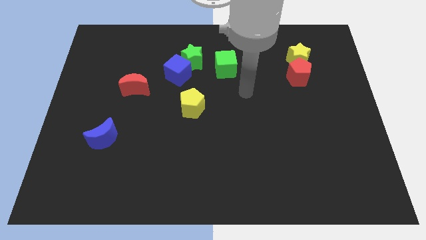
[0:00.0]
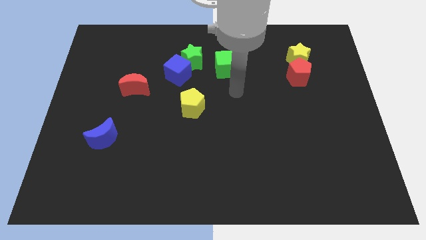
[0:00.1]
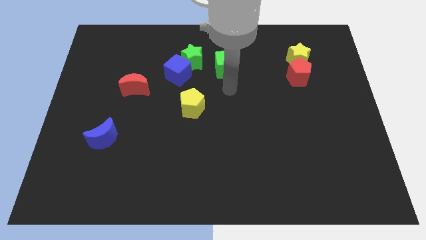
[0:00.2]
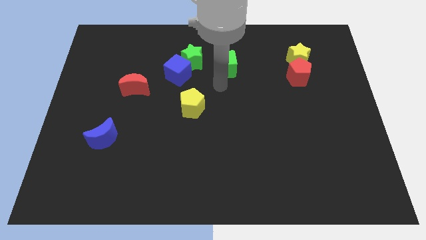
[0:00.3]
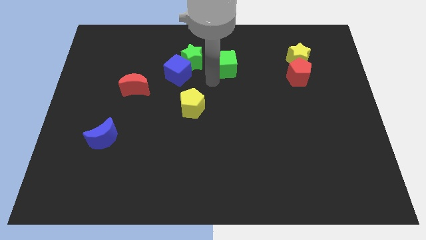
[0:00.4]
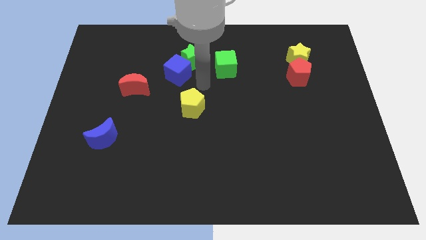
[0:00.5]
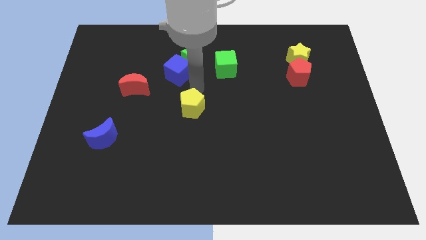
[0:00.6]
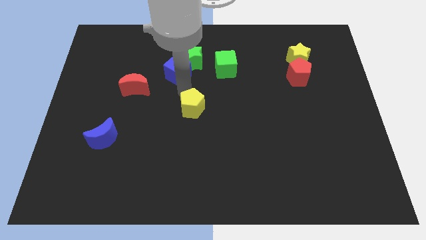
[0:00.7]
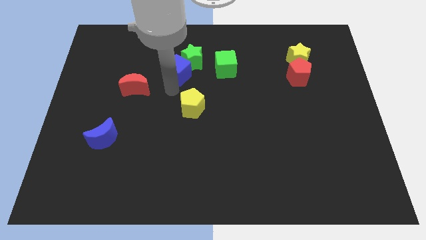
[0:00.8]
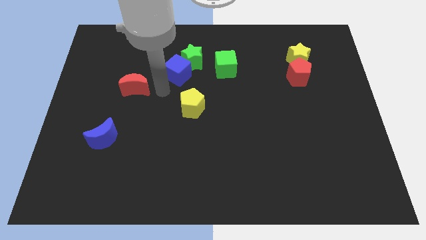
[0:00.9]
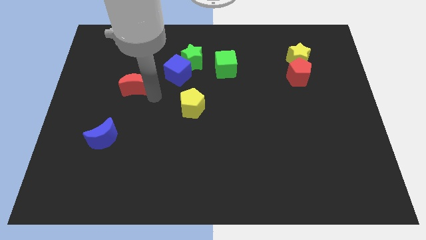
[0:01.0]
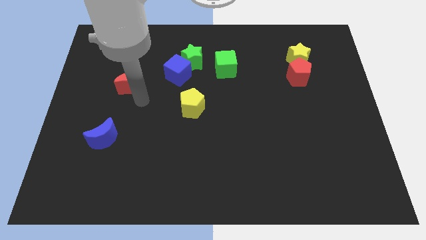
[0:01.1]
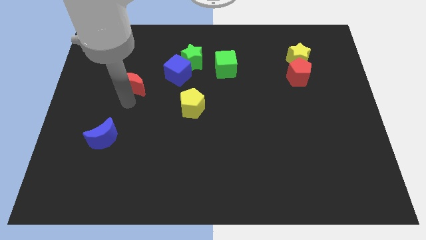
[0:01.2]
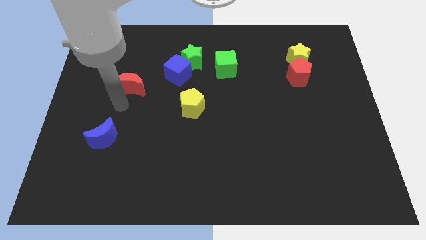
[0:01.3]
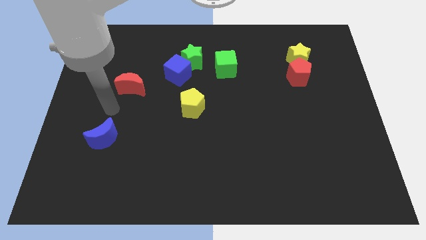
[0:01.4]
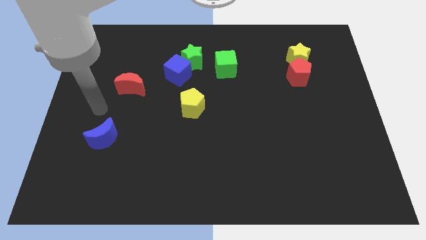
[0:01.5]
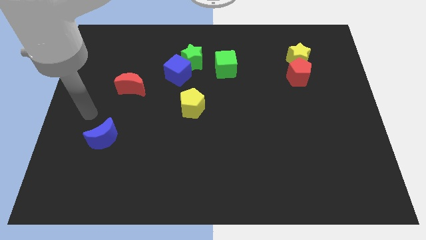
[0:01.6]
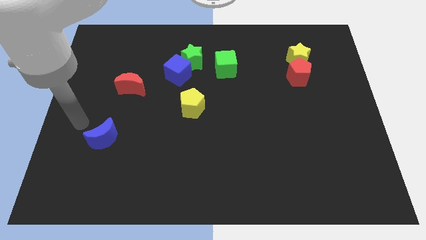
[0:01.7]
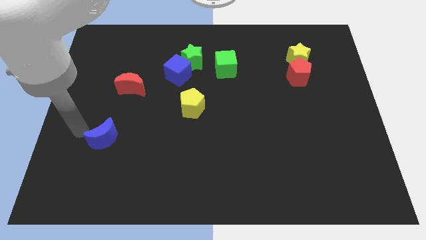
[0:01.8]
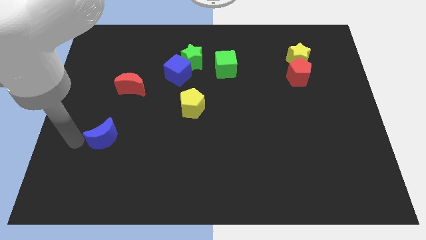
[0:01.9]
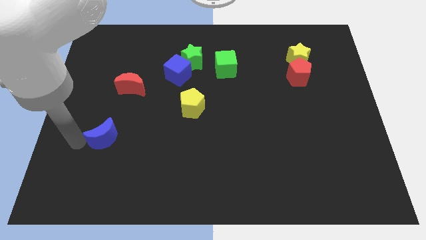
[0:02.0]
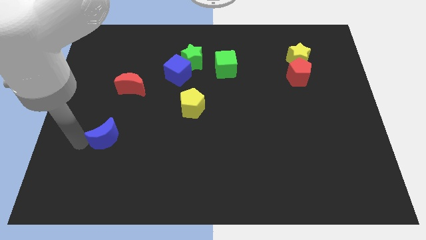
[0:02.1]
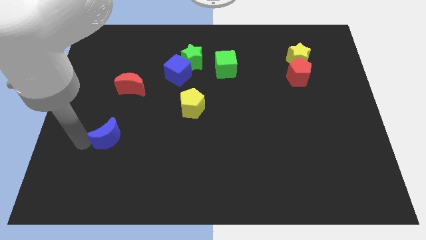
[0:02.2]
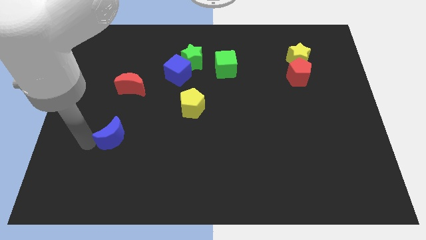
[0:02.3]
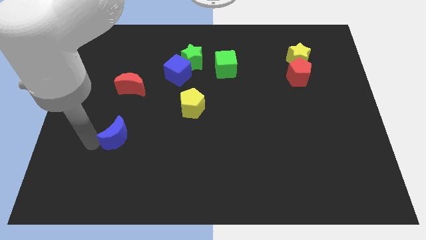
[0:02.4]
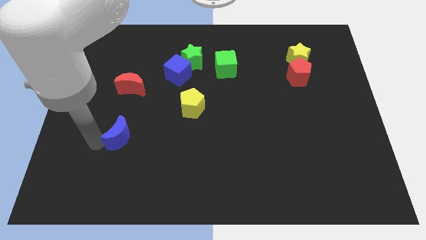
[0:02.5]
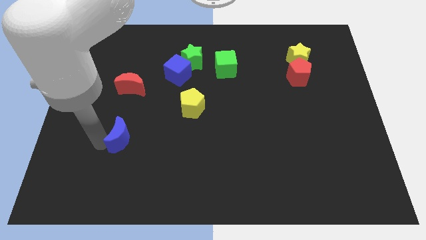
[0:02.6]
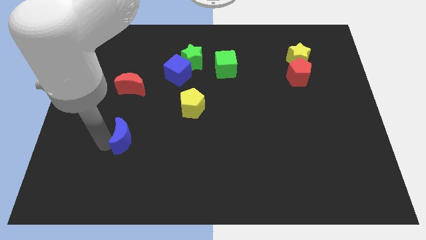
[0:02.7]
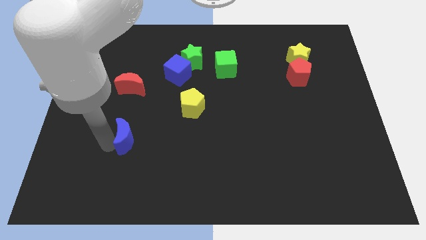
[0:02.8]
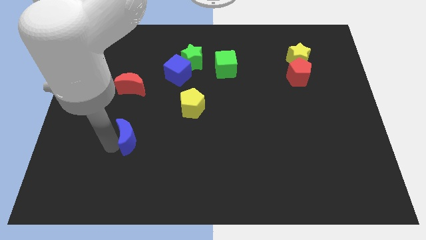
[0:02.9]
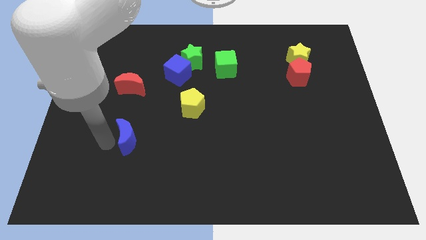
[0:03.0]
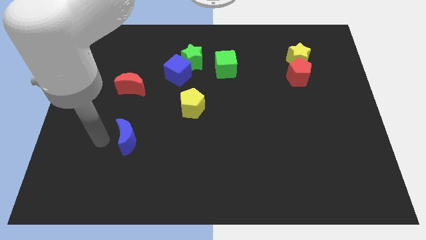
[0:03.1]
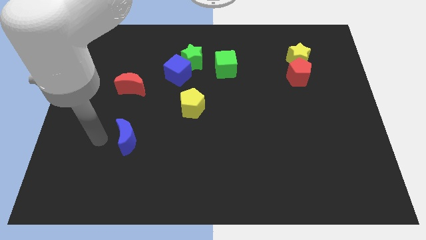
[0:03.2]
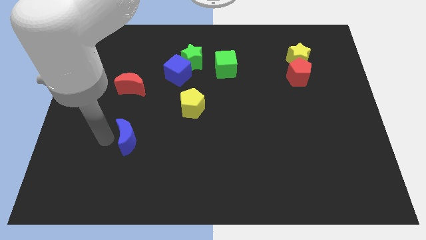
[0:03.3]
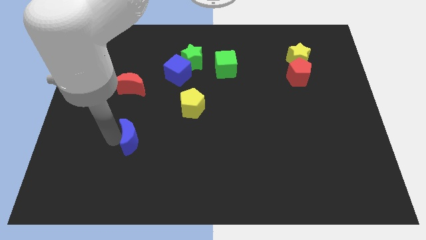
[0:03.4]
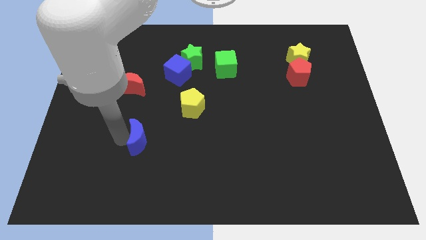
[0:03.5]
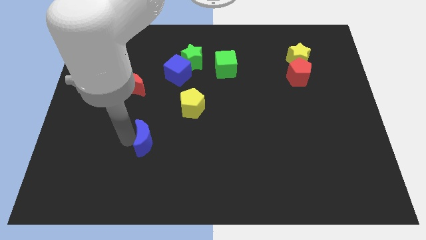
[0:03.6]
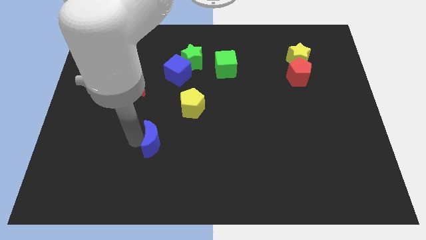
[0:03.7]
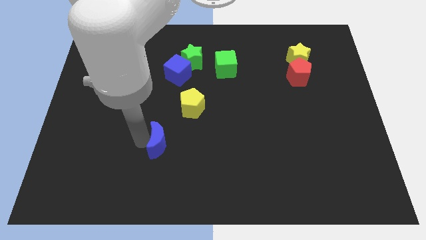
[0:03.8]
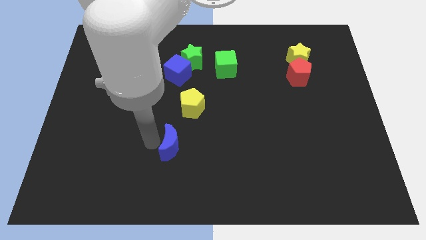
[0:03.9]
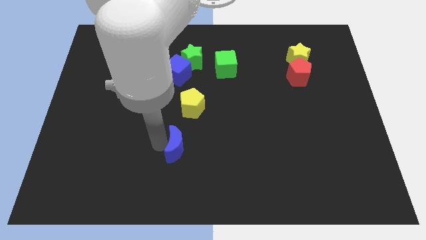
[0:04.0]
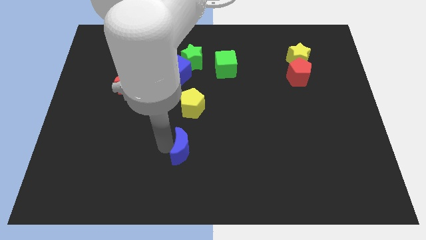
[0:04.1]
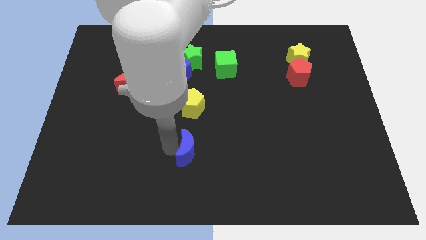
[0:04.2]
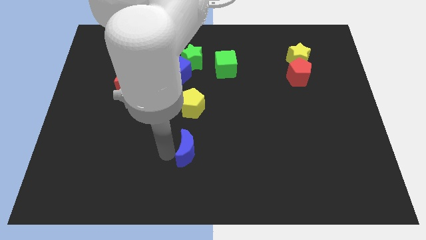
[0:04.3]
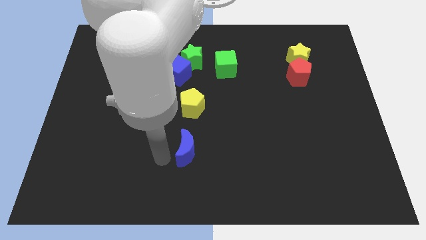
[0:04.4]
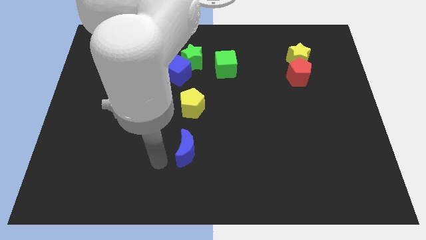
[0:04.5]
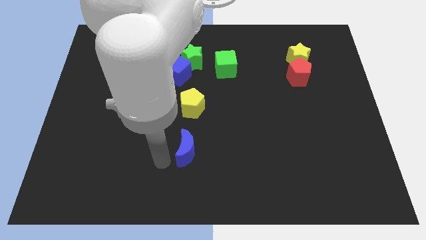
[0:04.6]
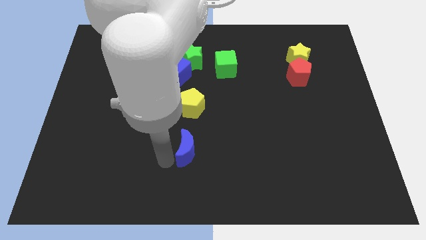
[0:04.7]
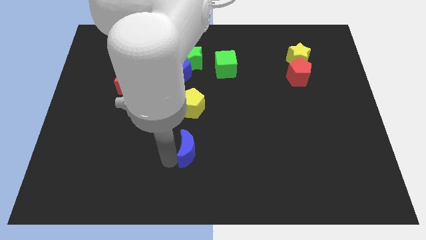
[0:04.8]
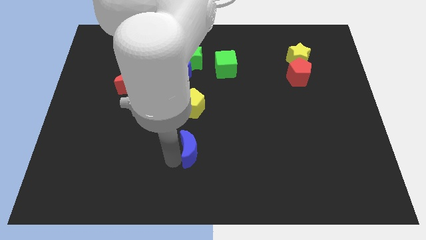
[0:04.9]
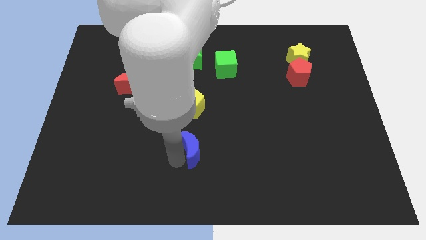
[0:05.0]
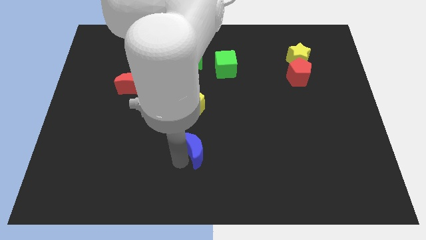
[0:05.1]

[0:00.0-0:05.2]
slide the blue moon to the right

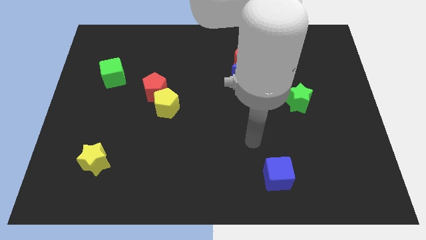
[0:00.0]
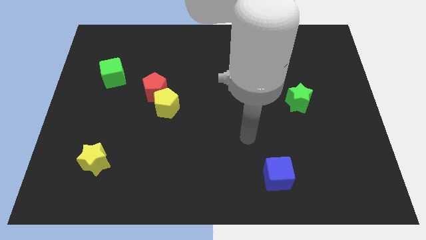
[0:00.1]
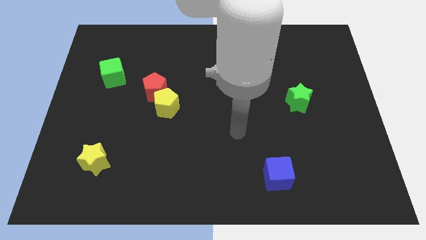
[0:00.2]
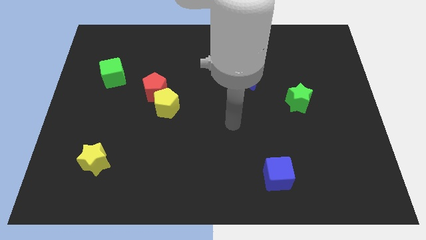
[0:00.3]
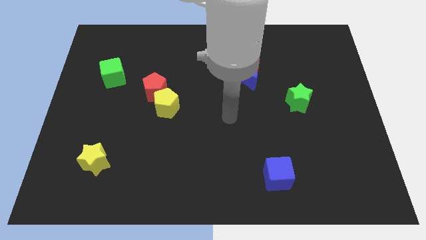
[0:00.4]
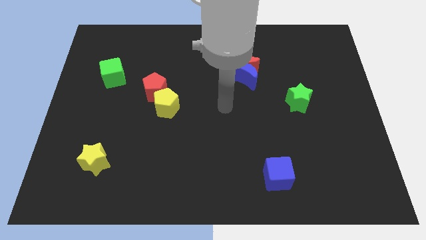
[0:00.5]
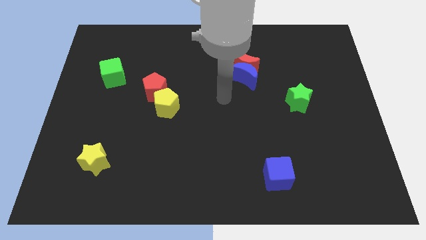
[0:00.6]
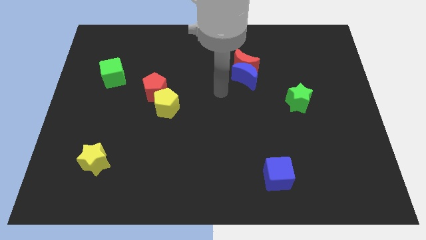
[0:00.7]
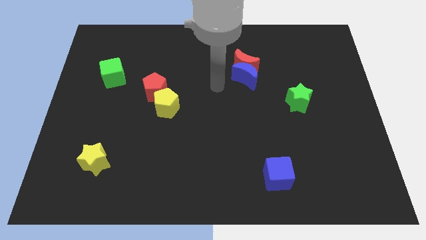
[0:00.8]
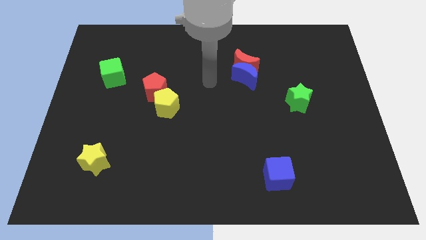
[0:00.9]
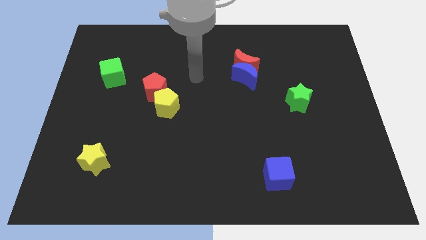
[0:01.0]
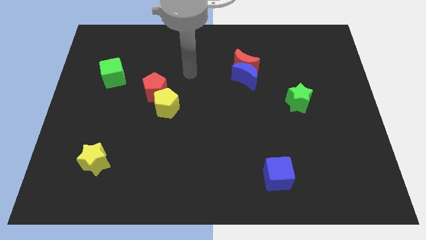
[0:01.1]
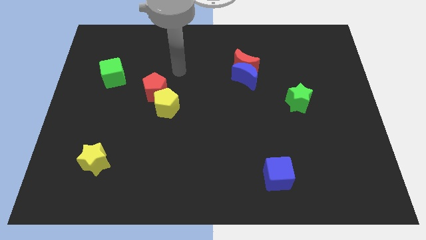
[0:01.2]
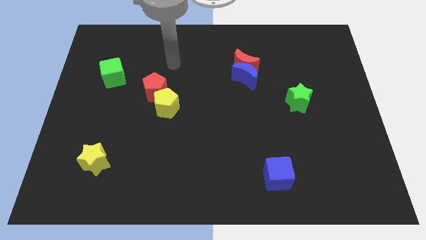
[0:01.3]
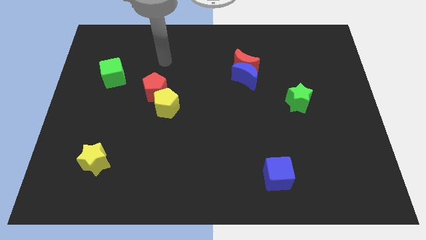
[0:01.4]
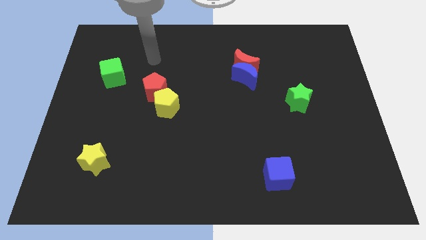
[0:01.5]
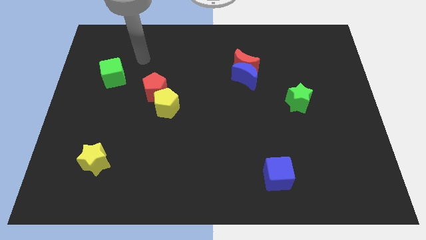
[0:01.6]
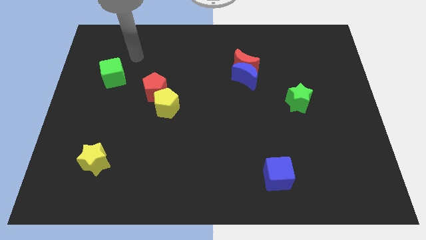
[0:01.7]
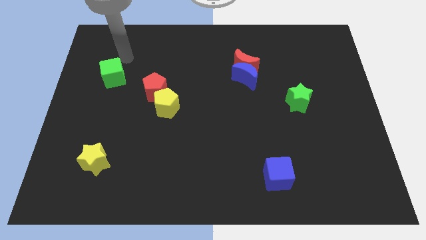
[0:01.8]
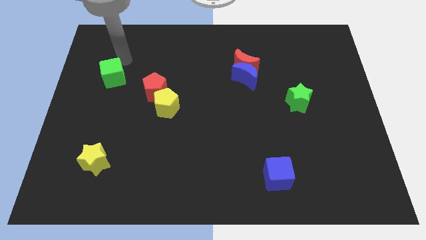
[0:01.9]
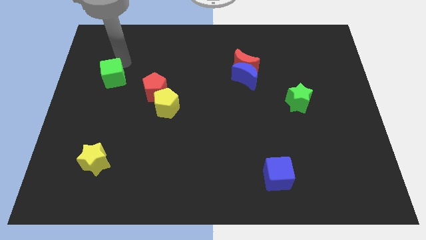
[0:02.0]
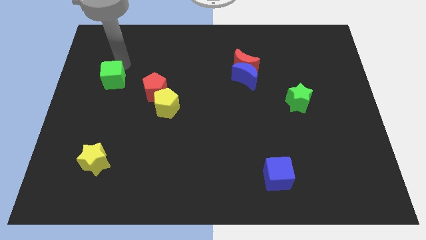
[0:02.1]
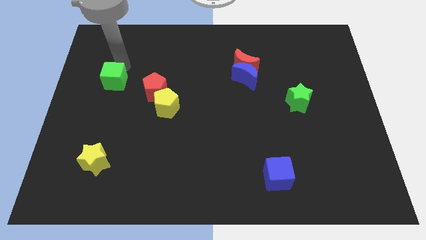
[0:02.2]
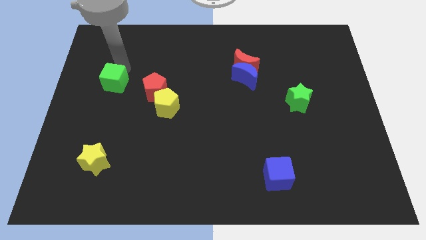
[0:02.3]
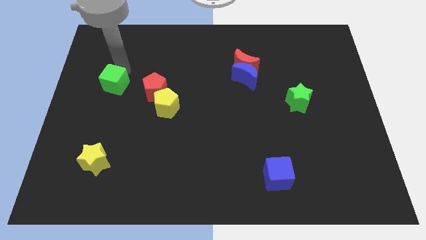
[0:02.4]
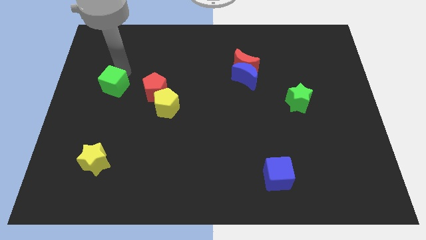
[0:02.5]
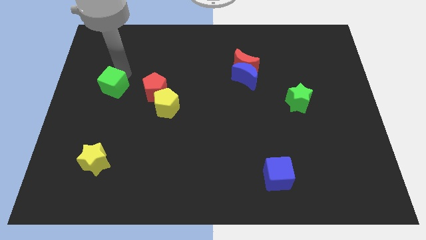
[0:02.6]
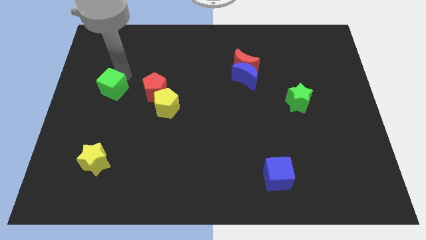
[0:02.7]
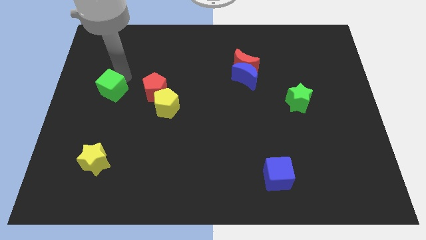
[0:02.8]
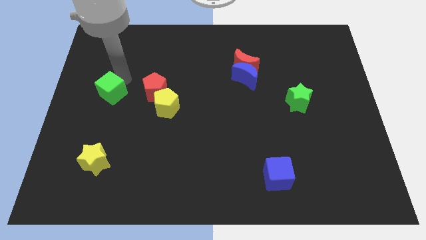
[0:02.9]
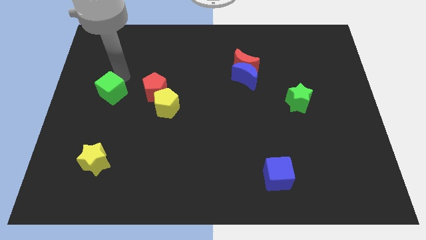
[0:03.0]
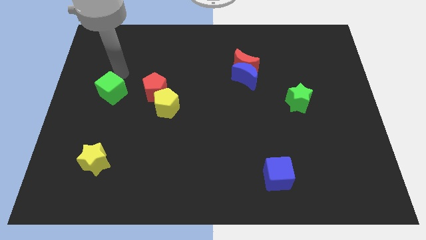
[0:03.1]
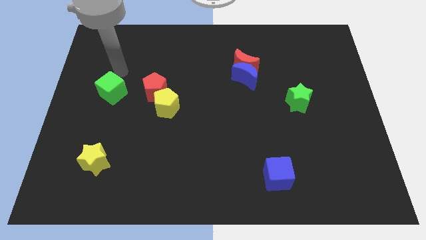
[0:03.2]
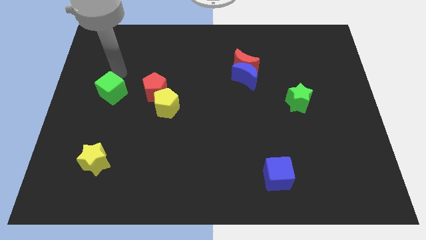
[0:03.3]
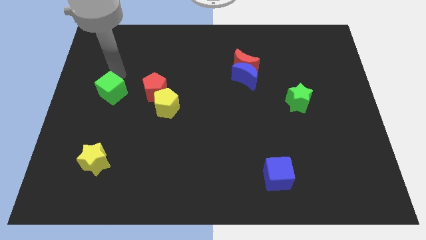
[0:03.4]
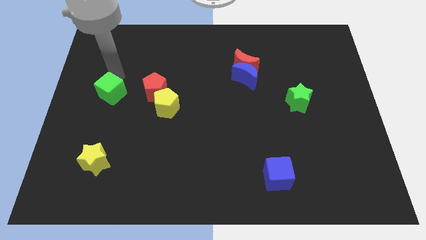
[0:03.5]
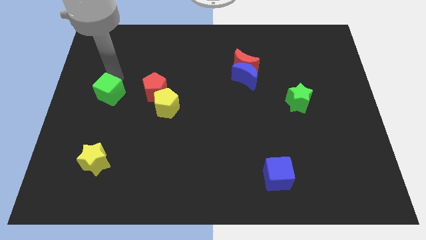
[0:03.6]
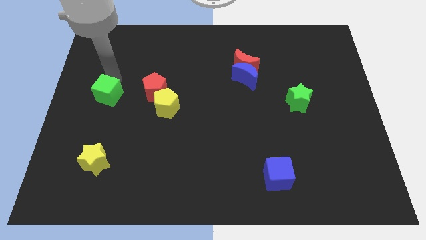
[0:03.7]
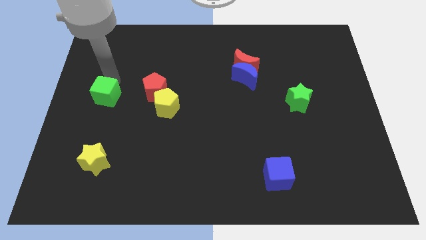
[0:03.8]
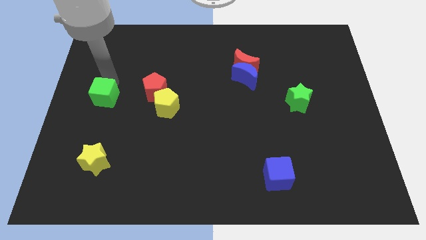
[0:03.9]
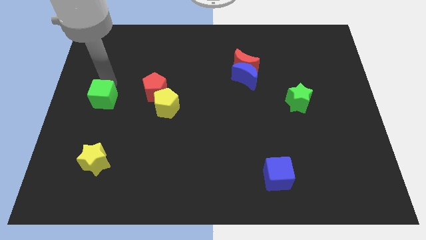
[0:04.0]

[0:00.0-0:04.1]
push the green cube somewhat downwards
